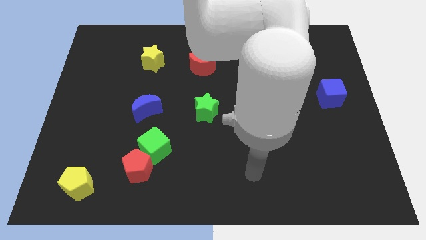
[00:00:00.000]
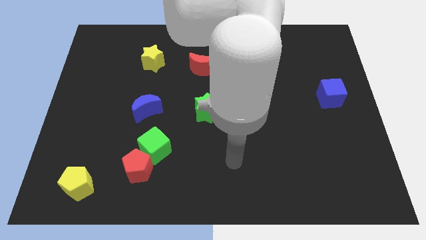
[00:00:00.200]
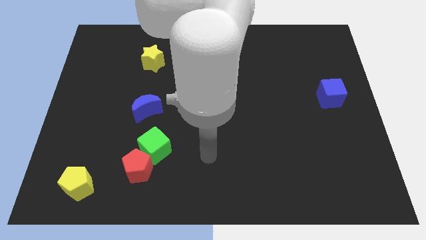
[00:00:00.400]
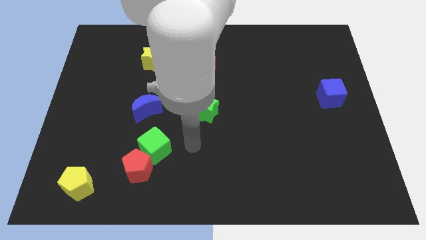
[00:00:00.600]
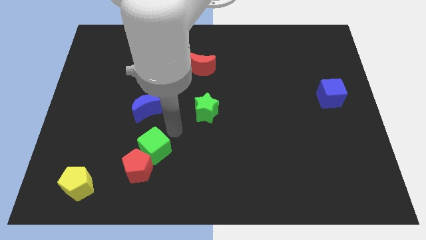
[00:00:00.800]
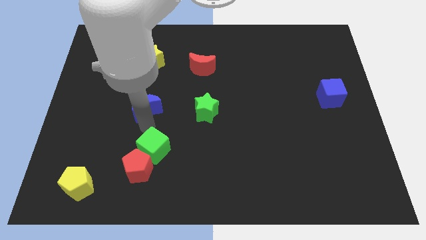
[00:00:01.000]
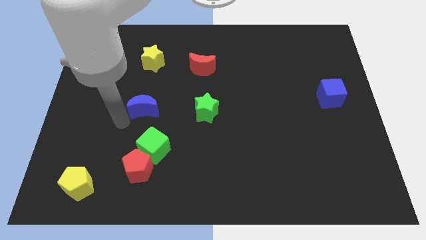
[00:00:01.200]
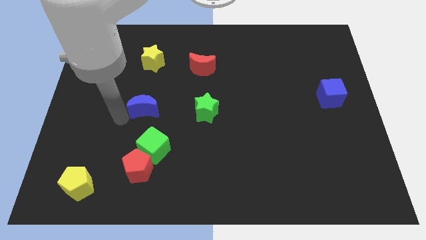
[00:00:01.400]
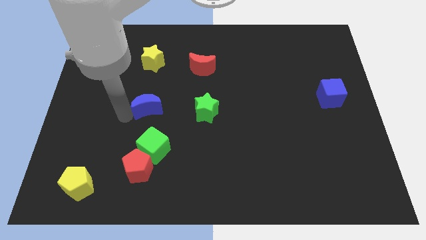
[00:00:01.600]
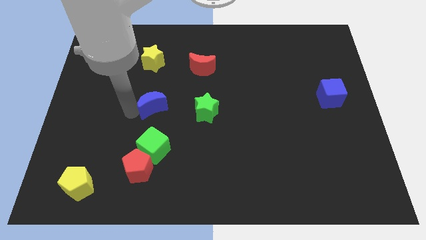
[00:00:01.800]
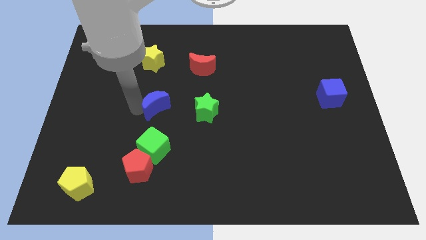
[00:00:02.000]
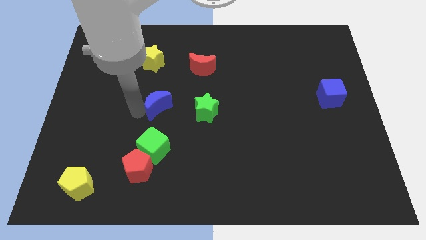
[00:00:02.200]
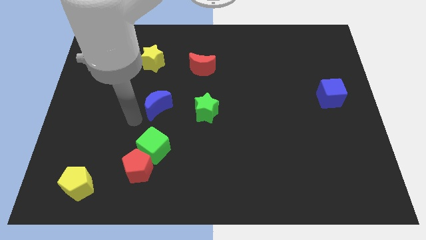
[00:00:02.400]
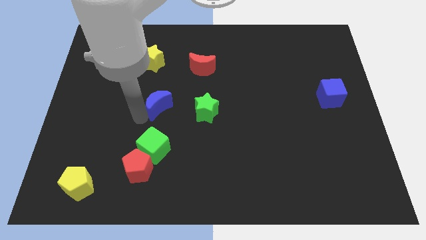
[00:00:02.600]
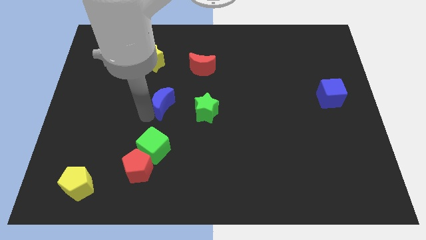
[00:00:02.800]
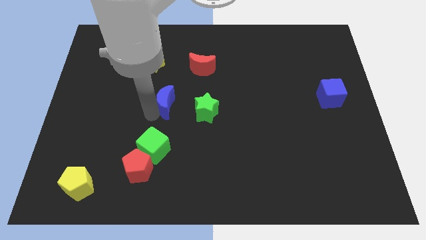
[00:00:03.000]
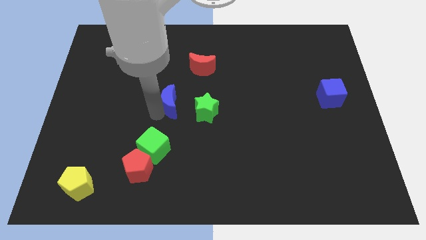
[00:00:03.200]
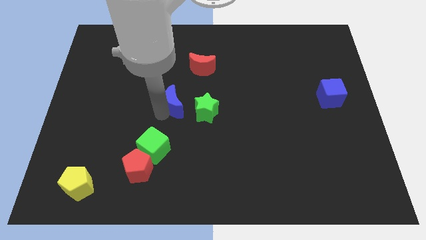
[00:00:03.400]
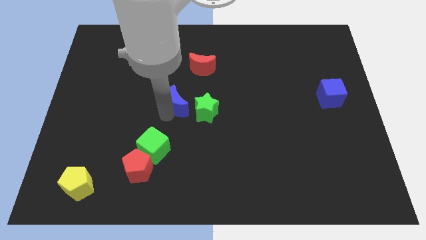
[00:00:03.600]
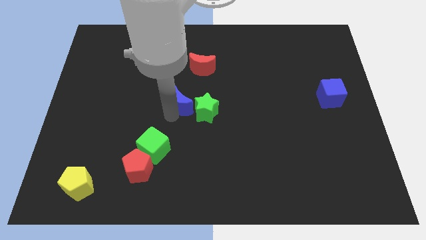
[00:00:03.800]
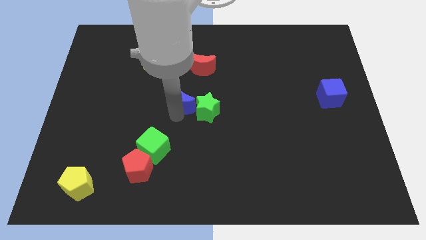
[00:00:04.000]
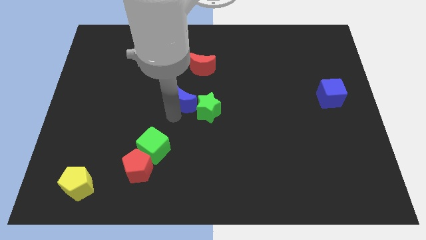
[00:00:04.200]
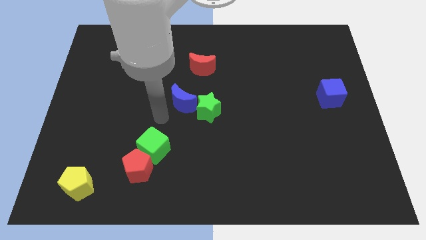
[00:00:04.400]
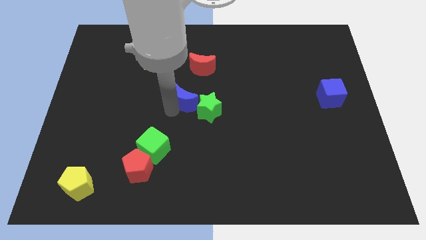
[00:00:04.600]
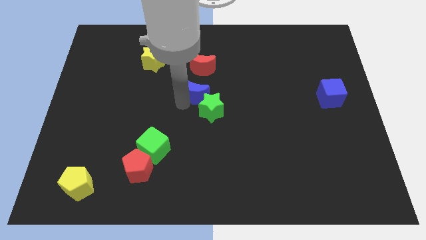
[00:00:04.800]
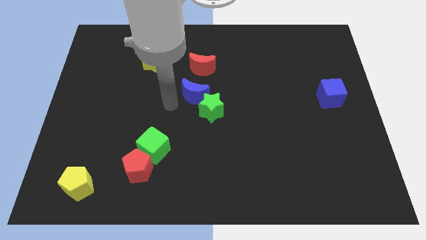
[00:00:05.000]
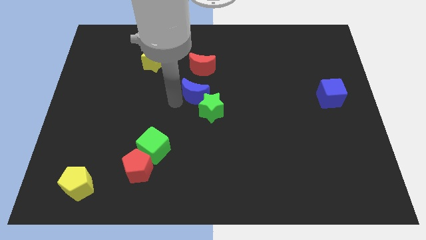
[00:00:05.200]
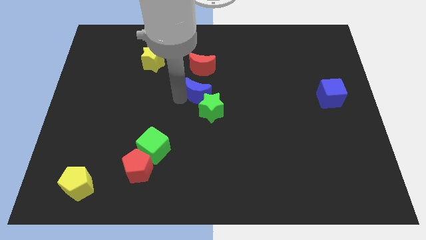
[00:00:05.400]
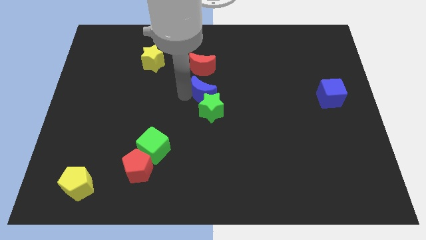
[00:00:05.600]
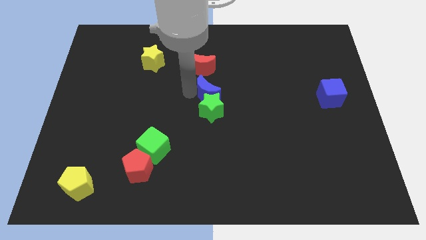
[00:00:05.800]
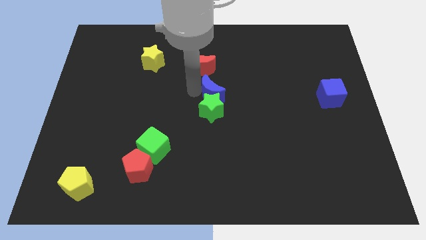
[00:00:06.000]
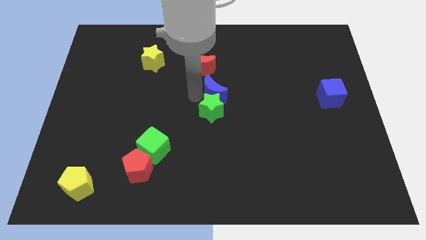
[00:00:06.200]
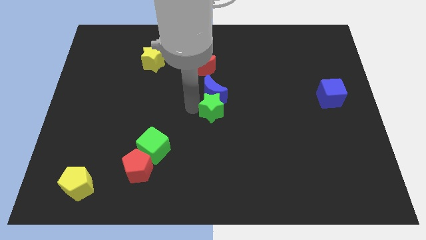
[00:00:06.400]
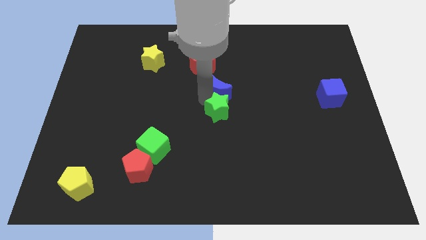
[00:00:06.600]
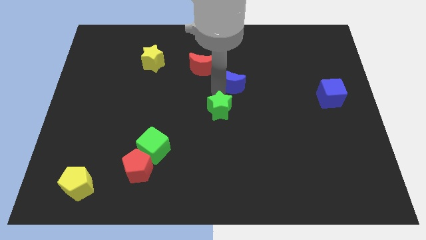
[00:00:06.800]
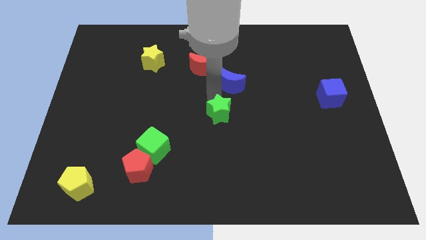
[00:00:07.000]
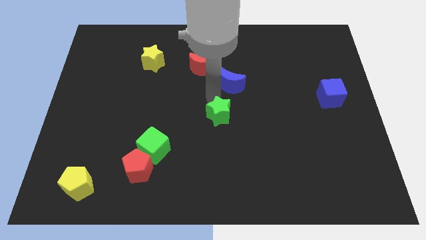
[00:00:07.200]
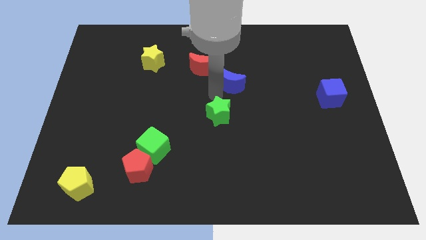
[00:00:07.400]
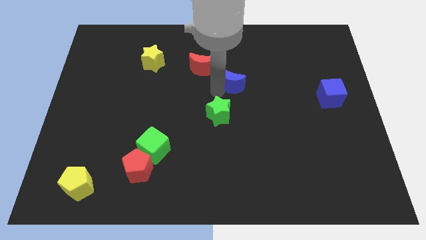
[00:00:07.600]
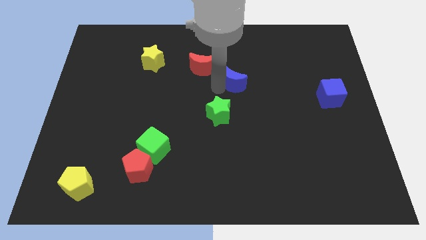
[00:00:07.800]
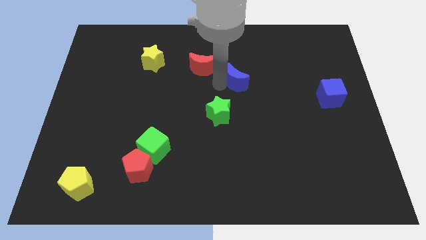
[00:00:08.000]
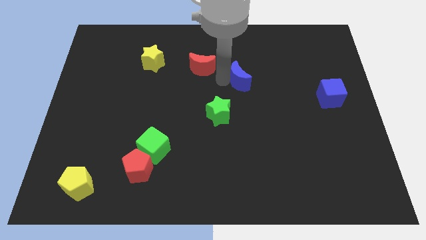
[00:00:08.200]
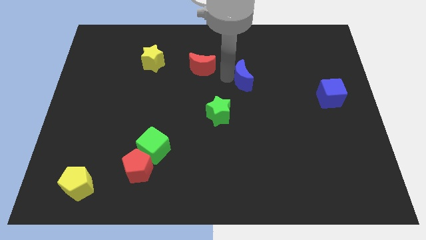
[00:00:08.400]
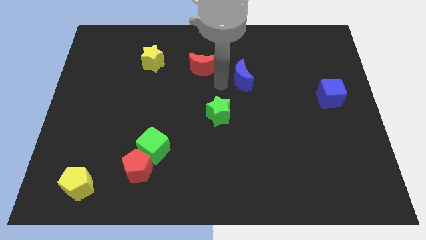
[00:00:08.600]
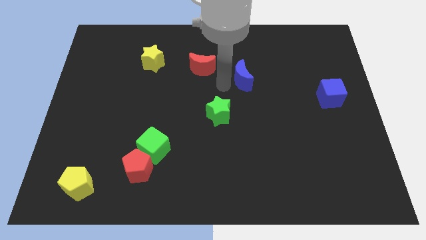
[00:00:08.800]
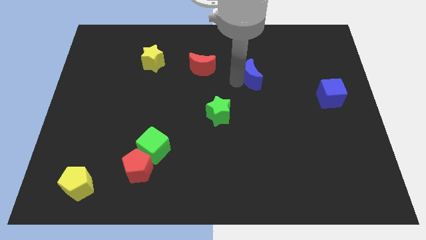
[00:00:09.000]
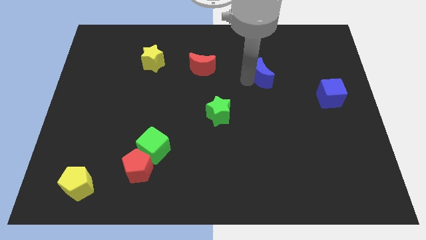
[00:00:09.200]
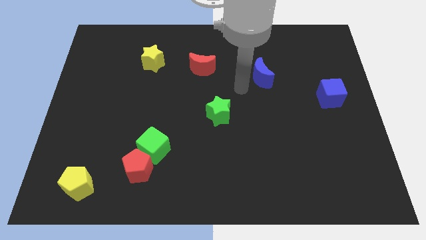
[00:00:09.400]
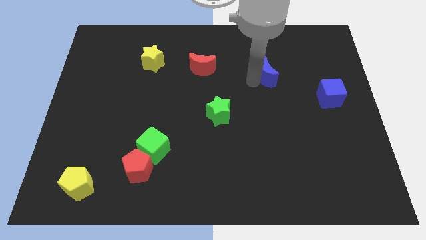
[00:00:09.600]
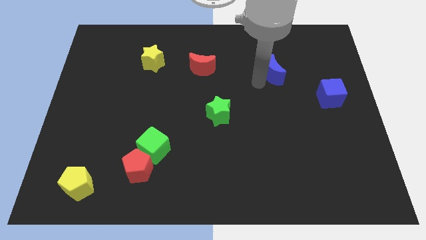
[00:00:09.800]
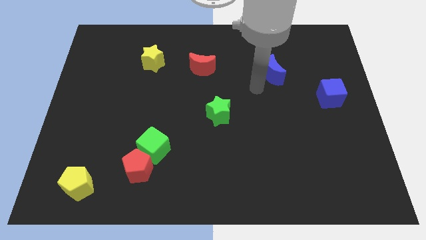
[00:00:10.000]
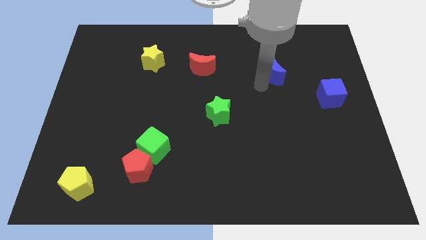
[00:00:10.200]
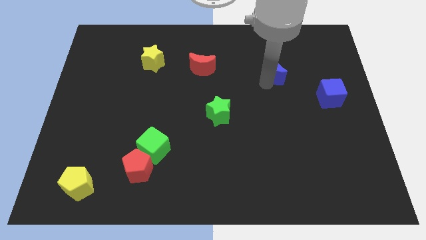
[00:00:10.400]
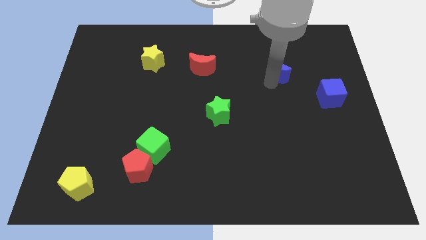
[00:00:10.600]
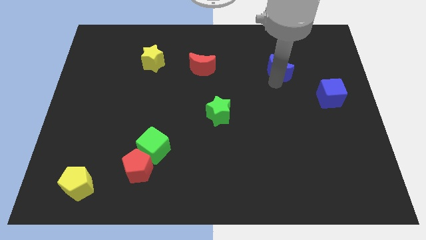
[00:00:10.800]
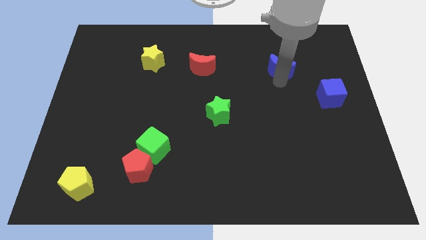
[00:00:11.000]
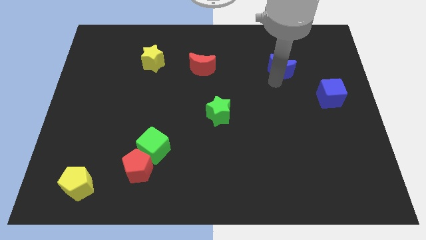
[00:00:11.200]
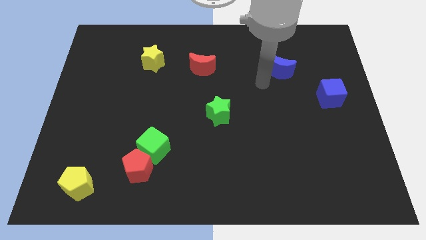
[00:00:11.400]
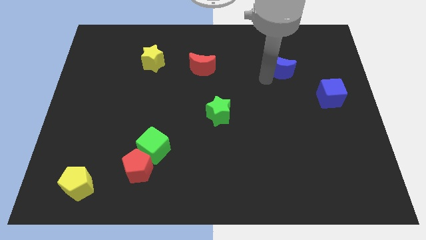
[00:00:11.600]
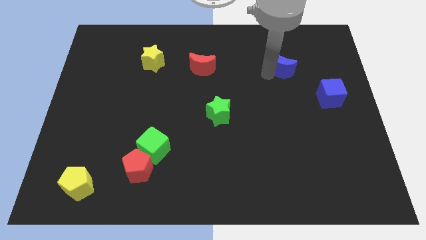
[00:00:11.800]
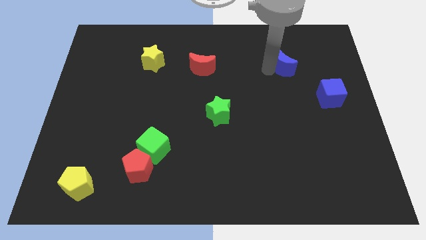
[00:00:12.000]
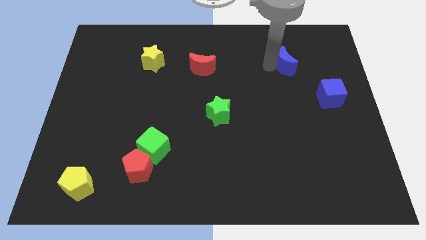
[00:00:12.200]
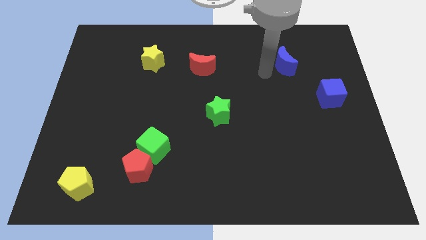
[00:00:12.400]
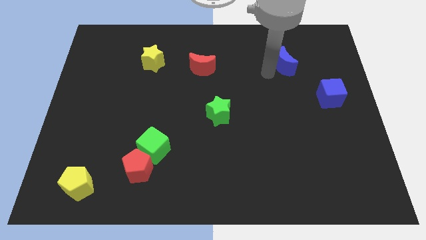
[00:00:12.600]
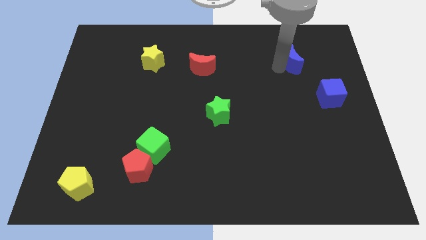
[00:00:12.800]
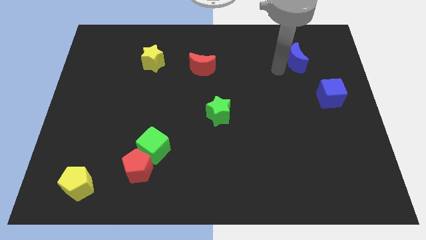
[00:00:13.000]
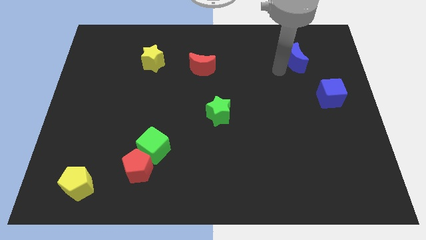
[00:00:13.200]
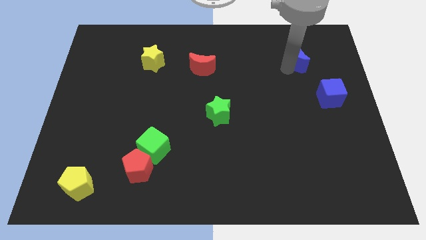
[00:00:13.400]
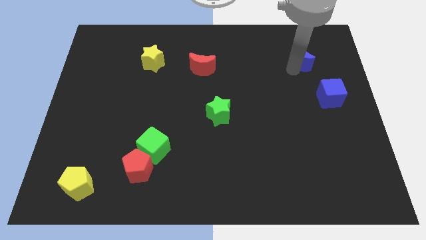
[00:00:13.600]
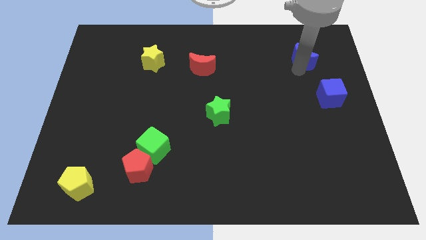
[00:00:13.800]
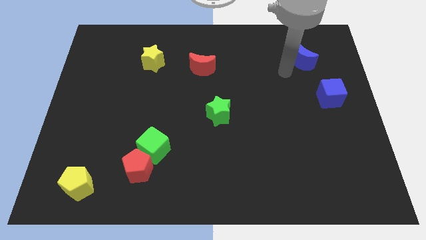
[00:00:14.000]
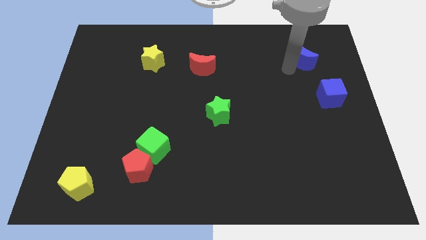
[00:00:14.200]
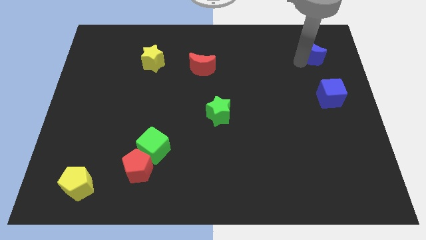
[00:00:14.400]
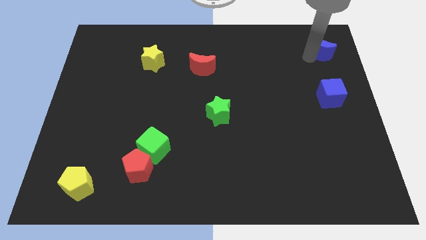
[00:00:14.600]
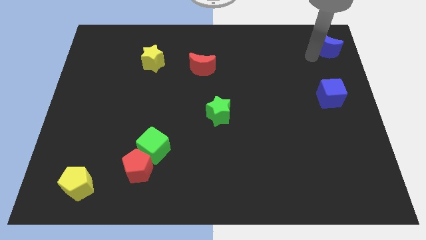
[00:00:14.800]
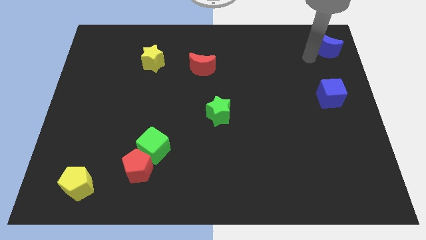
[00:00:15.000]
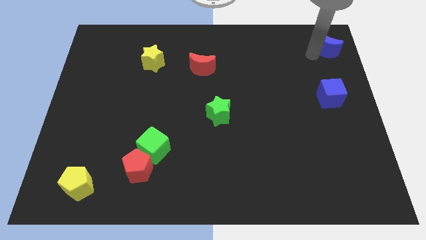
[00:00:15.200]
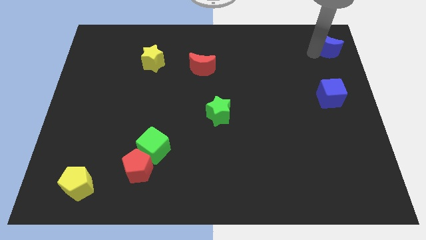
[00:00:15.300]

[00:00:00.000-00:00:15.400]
move the blue moon to the upper right corner
